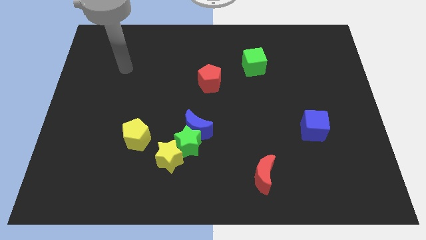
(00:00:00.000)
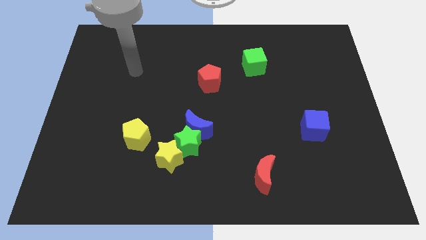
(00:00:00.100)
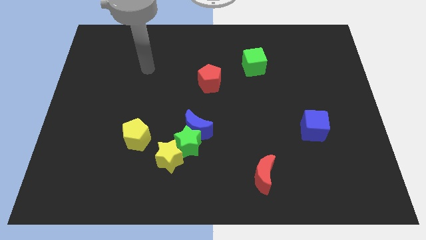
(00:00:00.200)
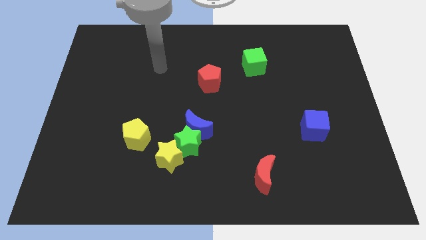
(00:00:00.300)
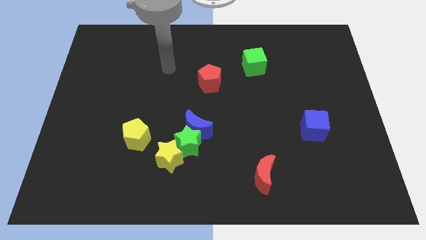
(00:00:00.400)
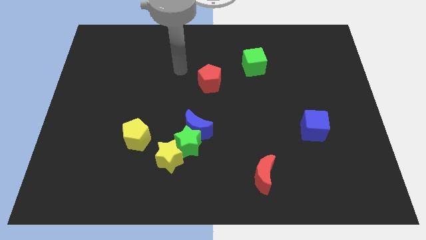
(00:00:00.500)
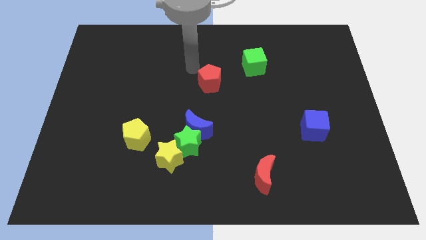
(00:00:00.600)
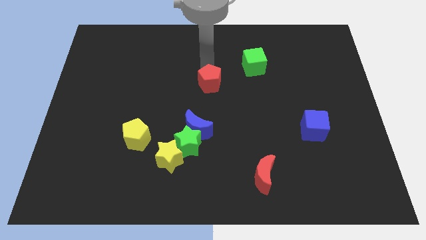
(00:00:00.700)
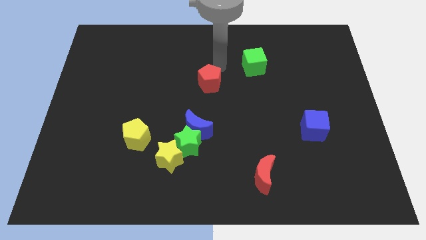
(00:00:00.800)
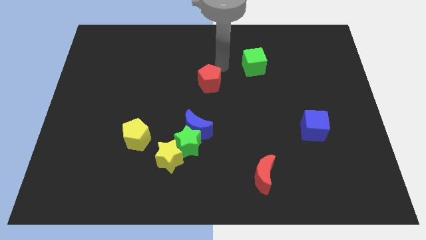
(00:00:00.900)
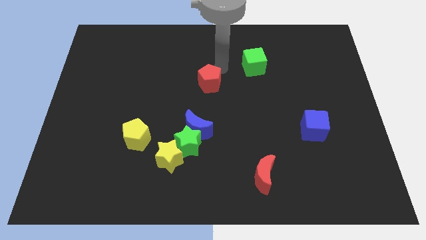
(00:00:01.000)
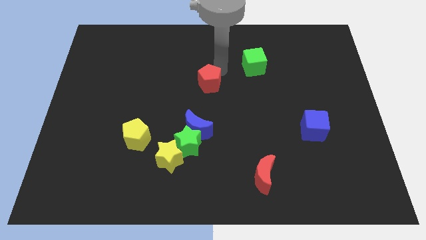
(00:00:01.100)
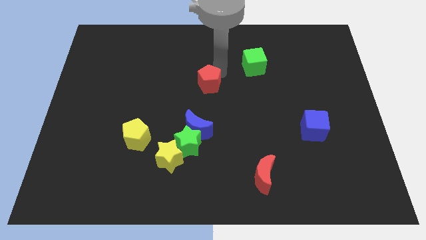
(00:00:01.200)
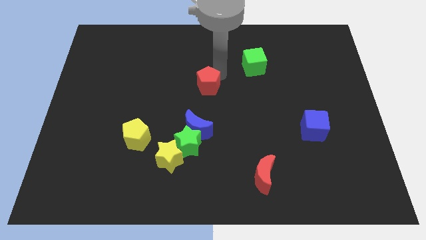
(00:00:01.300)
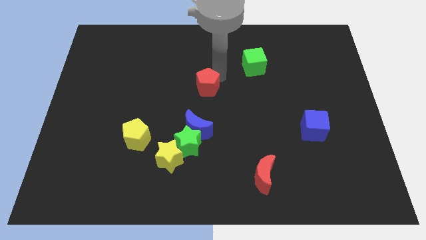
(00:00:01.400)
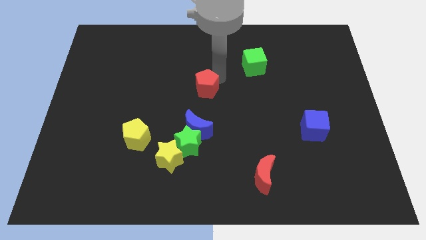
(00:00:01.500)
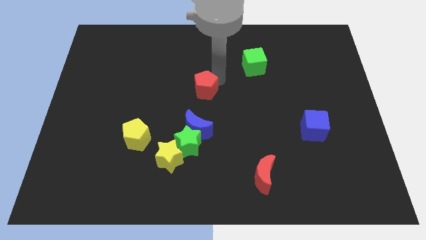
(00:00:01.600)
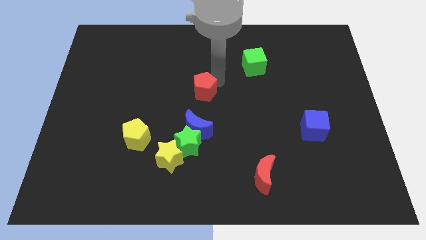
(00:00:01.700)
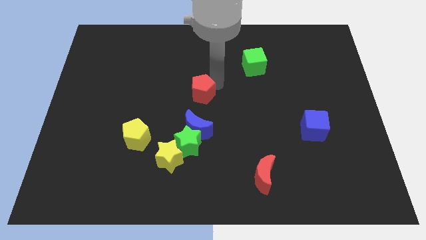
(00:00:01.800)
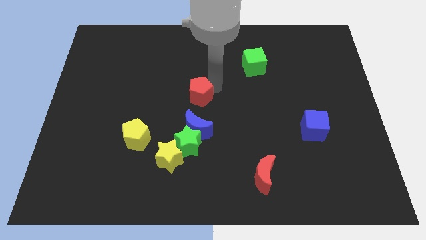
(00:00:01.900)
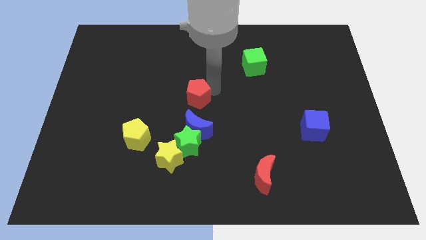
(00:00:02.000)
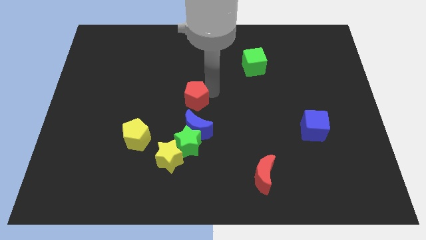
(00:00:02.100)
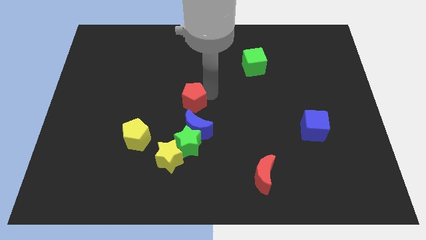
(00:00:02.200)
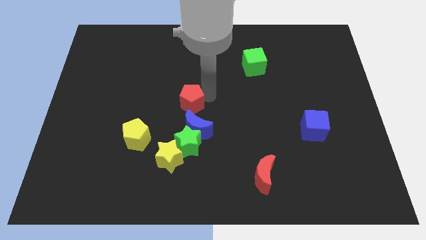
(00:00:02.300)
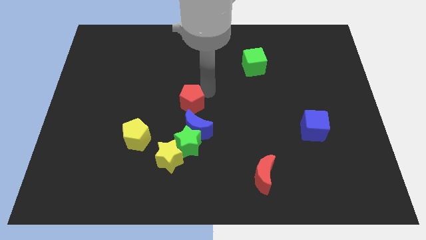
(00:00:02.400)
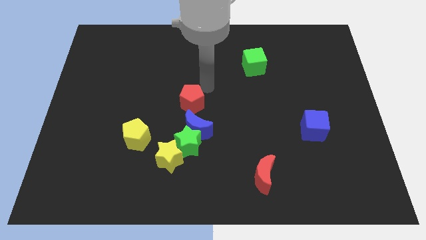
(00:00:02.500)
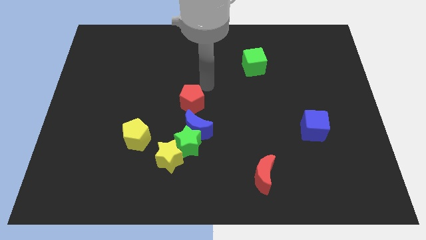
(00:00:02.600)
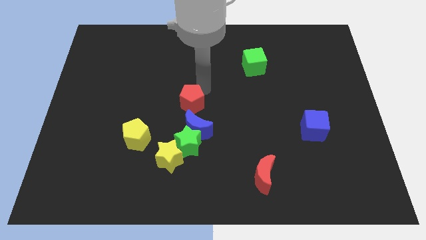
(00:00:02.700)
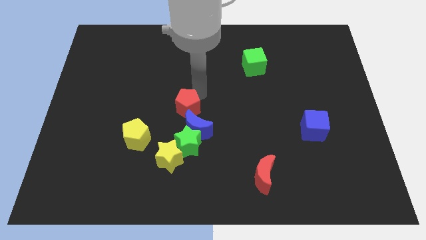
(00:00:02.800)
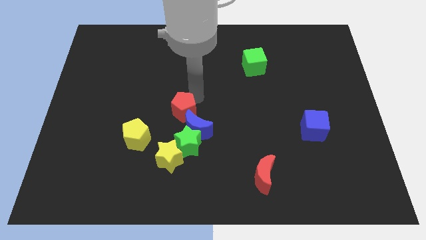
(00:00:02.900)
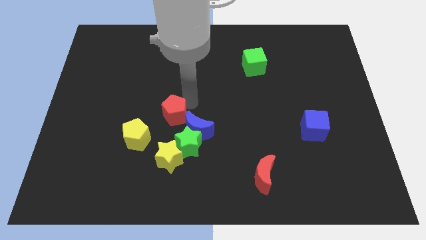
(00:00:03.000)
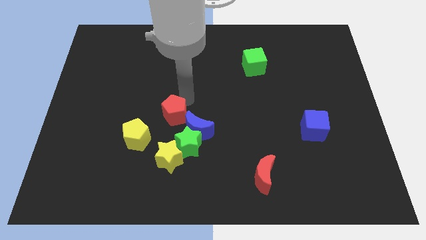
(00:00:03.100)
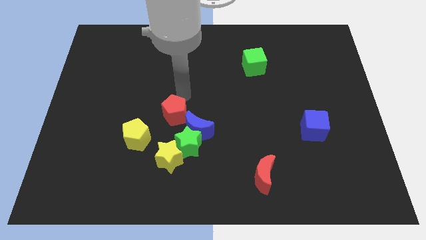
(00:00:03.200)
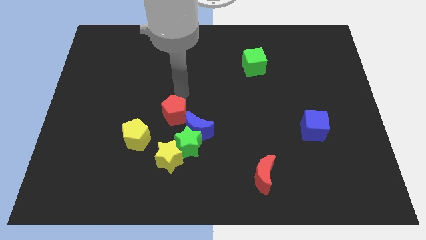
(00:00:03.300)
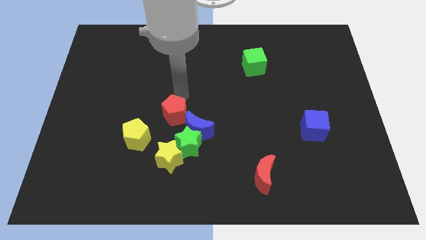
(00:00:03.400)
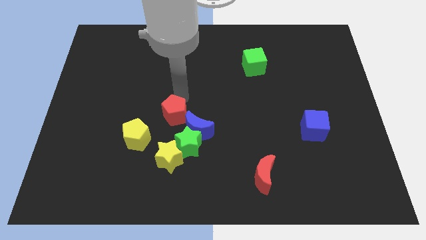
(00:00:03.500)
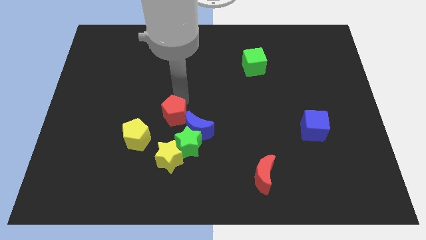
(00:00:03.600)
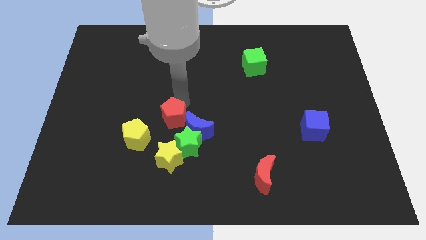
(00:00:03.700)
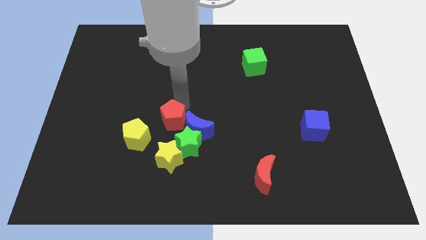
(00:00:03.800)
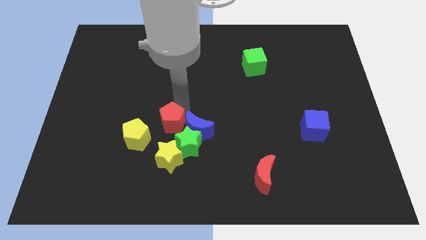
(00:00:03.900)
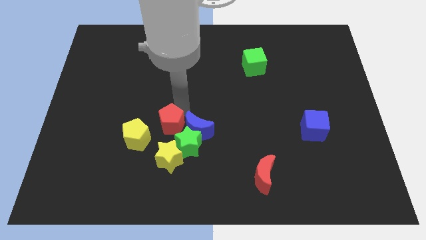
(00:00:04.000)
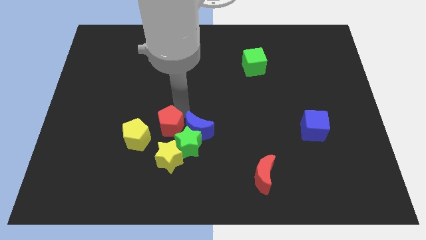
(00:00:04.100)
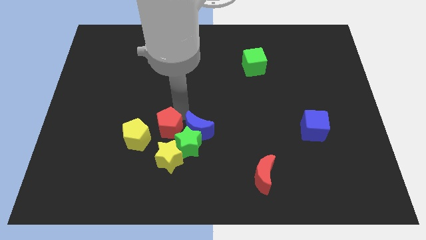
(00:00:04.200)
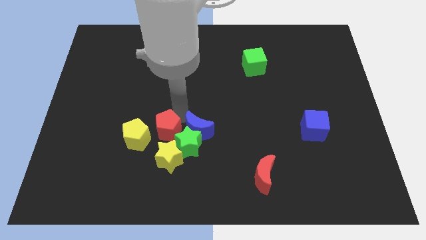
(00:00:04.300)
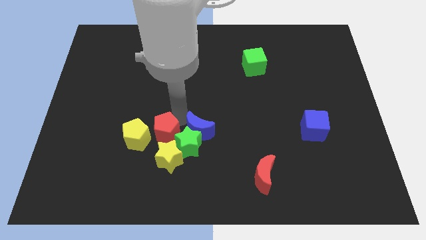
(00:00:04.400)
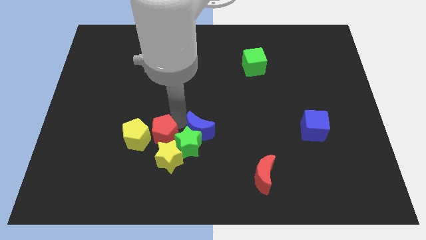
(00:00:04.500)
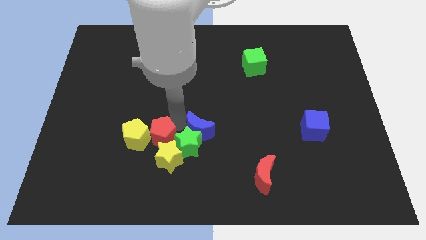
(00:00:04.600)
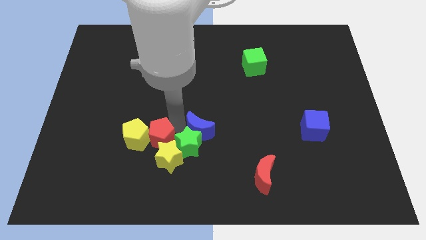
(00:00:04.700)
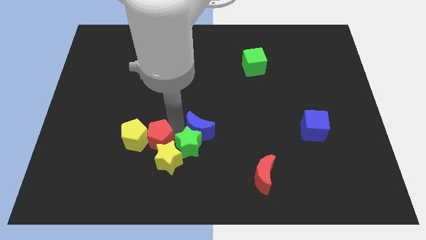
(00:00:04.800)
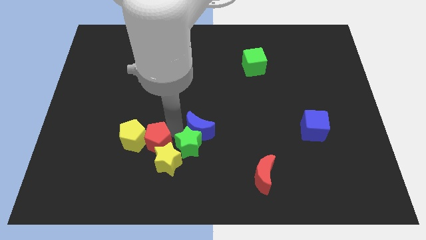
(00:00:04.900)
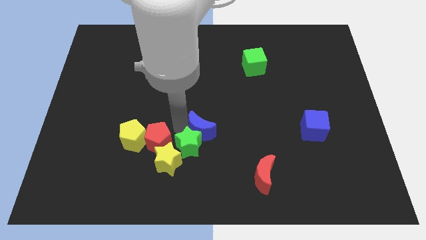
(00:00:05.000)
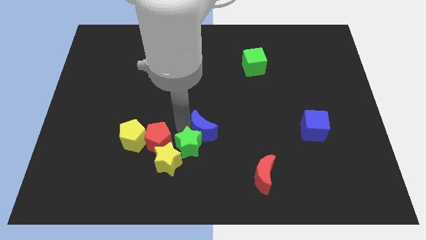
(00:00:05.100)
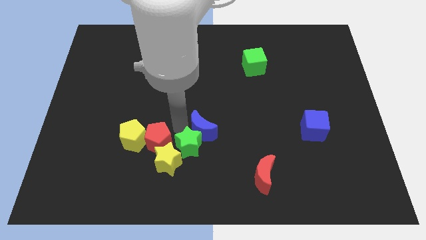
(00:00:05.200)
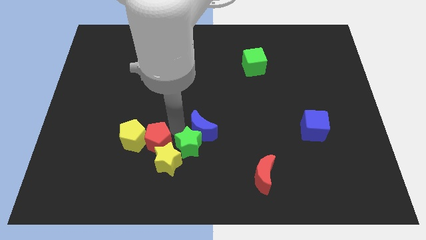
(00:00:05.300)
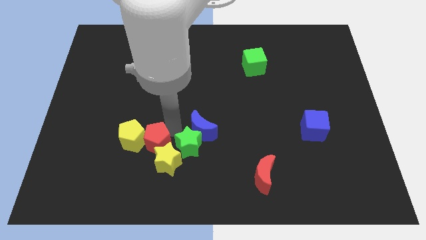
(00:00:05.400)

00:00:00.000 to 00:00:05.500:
push the red pentagon diagonally down and left

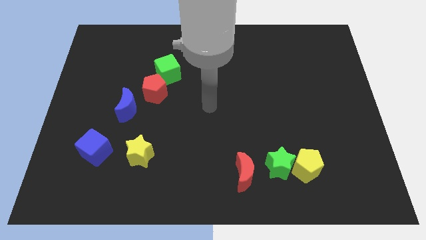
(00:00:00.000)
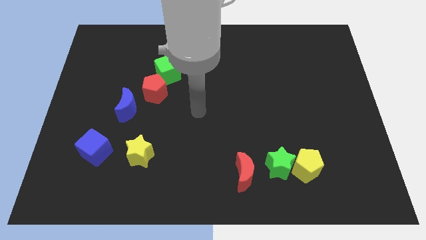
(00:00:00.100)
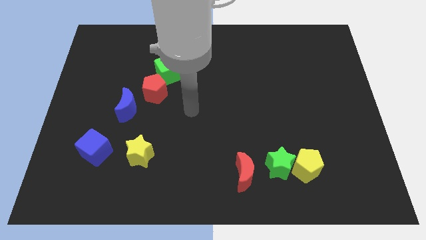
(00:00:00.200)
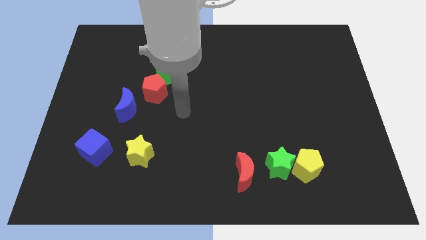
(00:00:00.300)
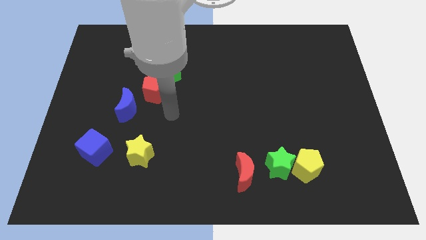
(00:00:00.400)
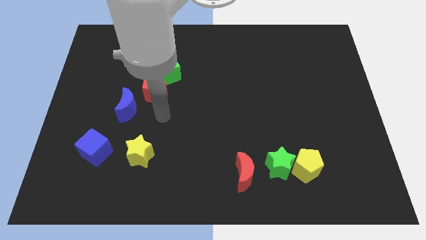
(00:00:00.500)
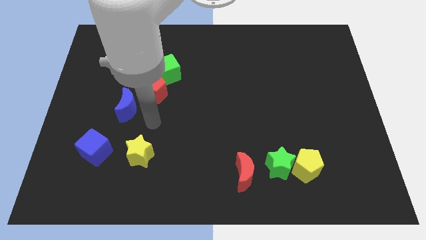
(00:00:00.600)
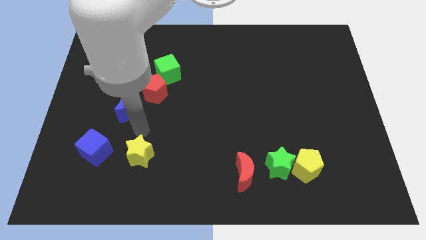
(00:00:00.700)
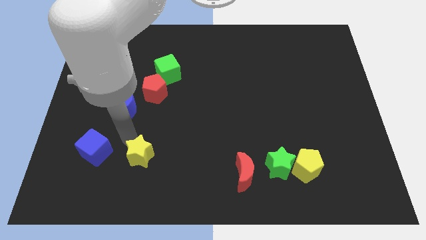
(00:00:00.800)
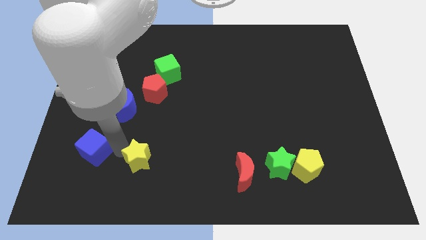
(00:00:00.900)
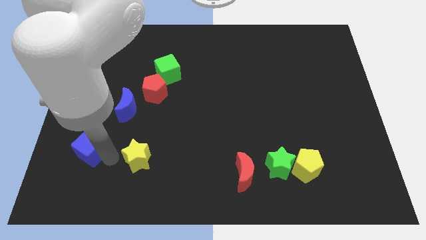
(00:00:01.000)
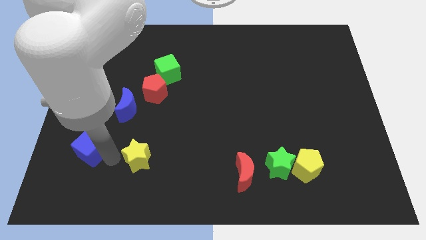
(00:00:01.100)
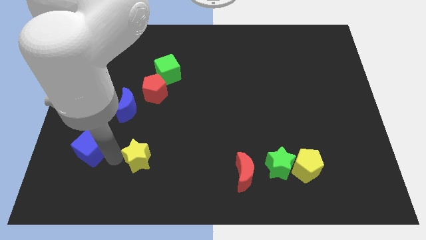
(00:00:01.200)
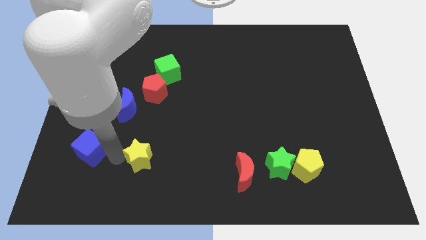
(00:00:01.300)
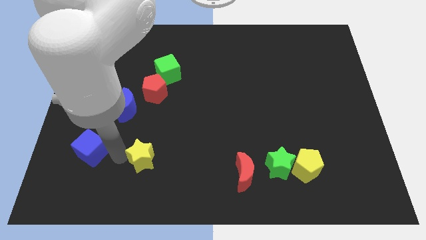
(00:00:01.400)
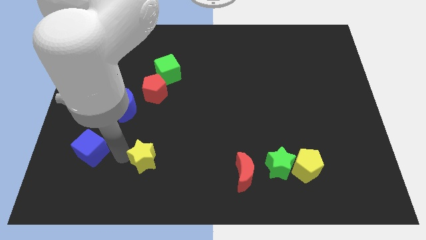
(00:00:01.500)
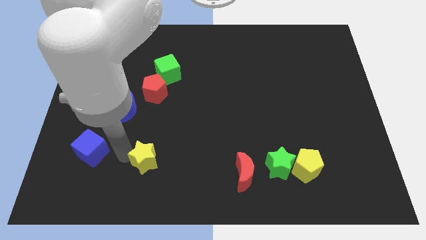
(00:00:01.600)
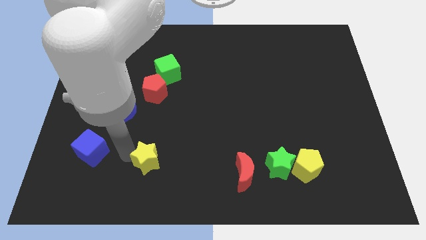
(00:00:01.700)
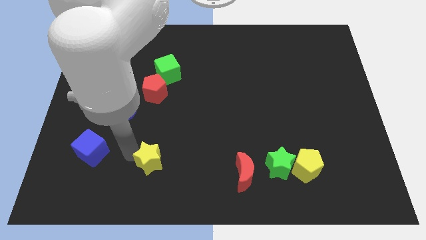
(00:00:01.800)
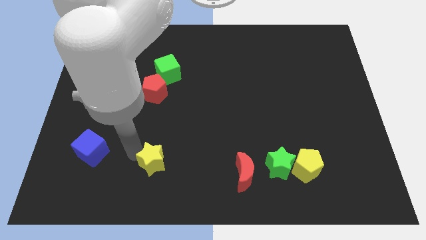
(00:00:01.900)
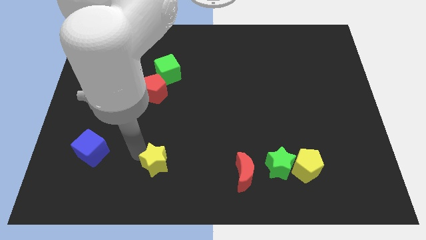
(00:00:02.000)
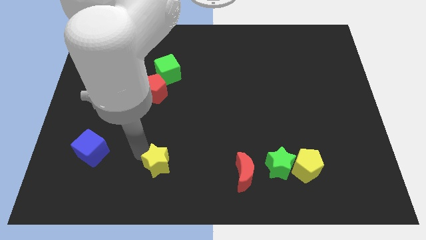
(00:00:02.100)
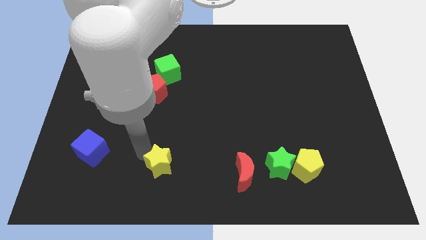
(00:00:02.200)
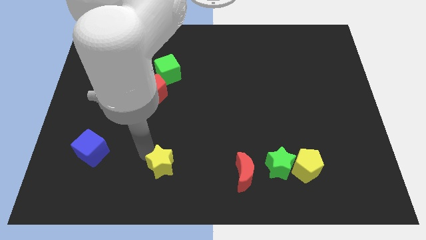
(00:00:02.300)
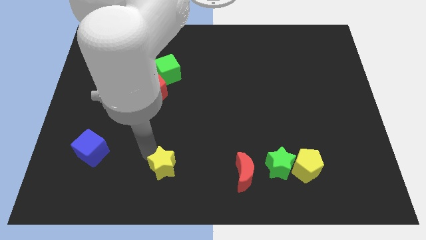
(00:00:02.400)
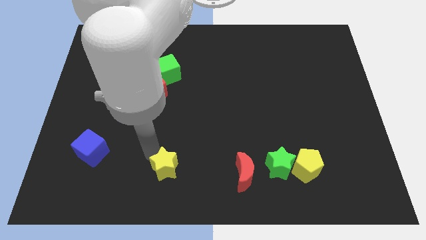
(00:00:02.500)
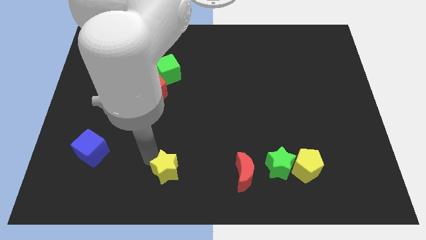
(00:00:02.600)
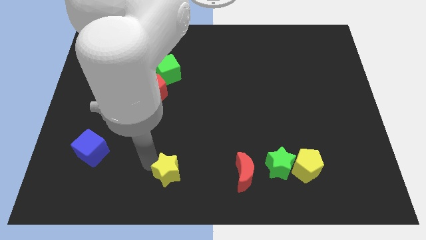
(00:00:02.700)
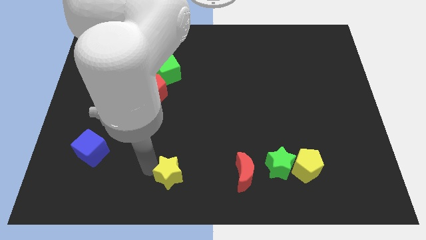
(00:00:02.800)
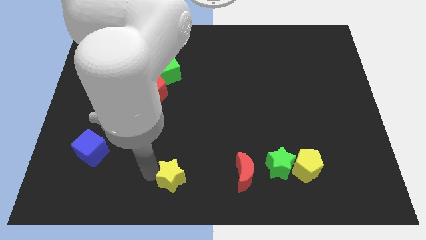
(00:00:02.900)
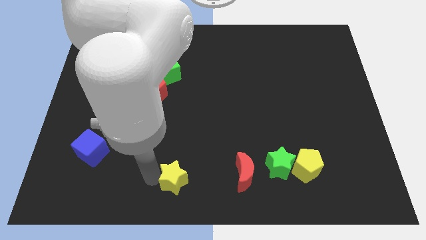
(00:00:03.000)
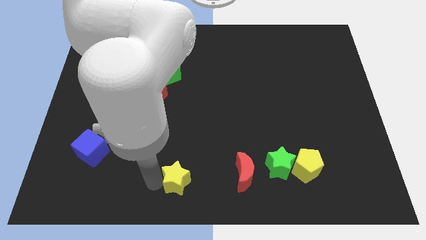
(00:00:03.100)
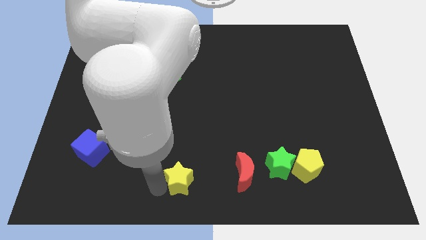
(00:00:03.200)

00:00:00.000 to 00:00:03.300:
push the yellow star a little to the right
